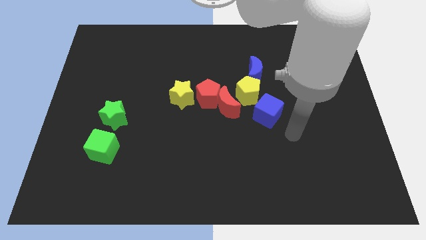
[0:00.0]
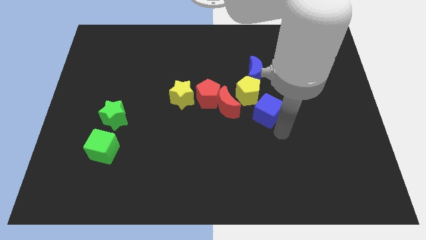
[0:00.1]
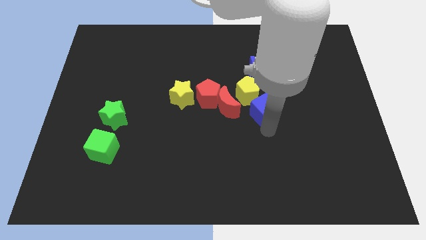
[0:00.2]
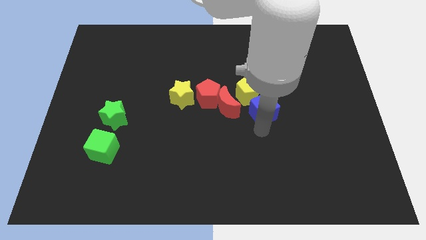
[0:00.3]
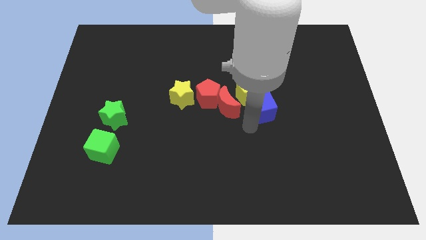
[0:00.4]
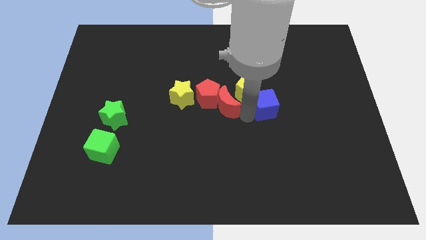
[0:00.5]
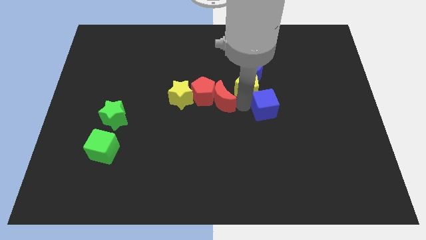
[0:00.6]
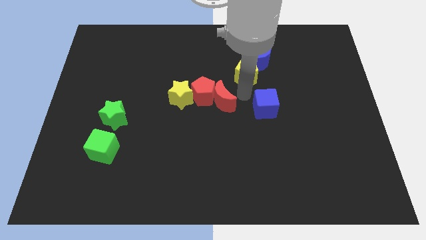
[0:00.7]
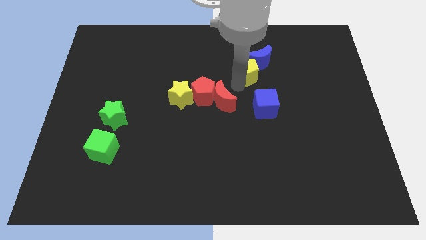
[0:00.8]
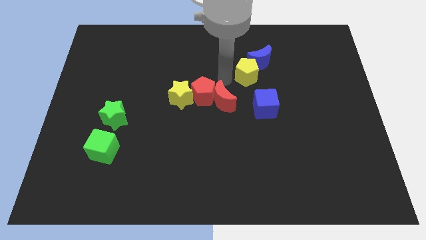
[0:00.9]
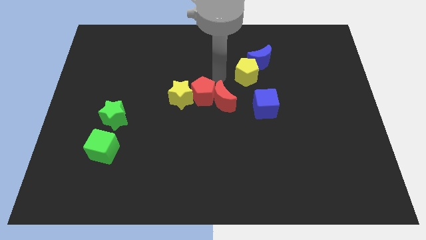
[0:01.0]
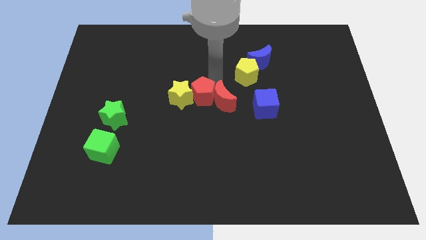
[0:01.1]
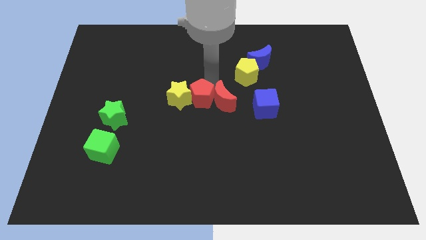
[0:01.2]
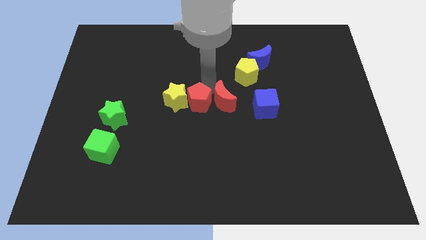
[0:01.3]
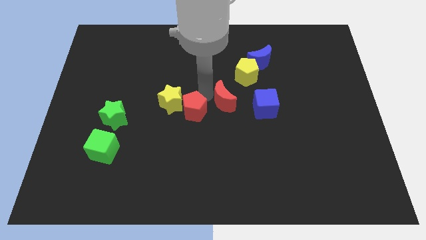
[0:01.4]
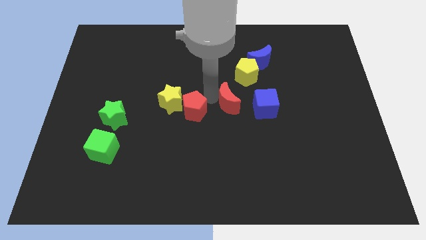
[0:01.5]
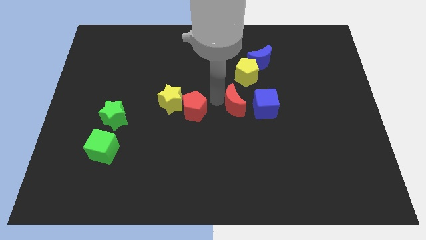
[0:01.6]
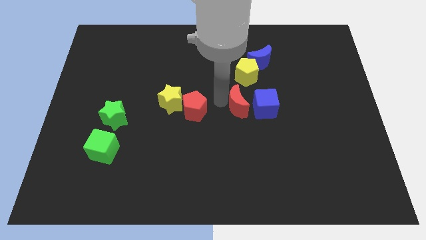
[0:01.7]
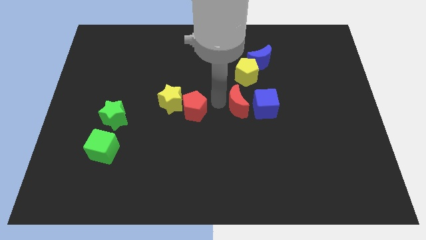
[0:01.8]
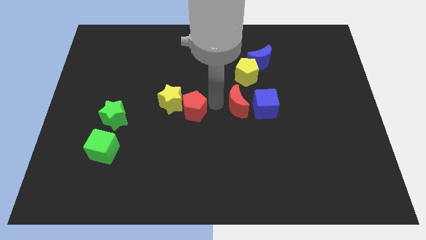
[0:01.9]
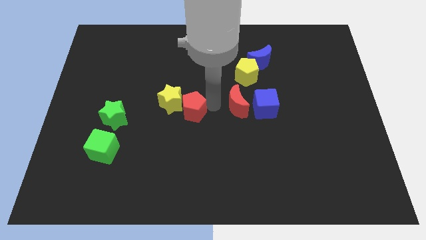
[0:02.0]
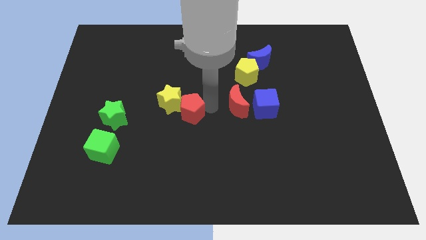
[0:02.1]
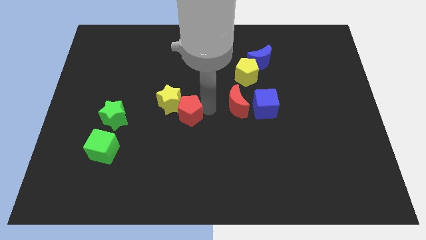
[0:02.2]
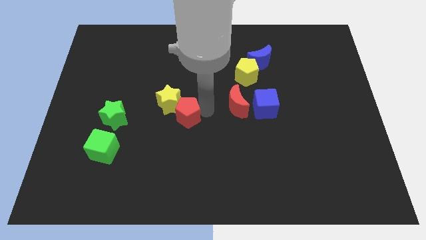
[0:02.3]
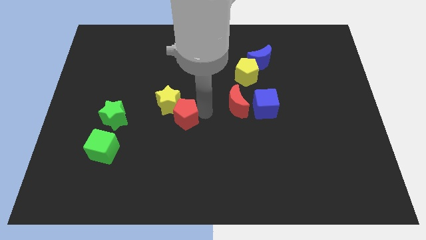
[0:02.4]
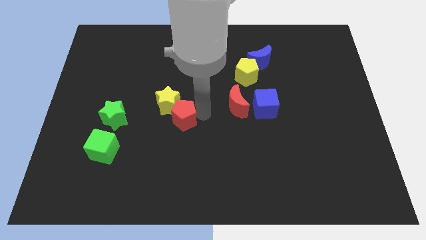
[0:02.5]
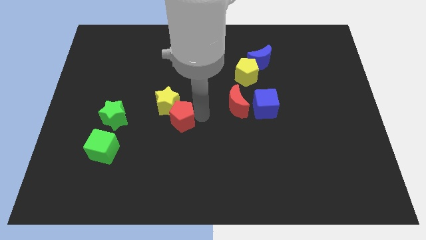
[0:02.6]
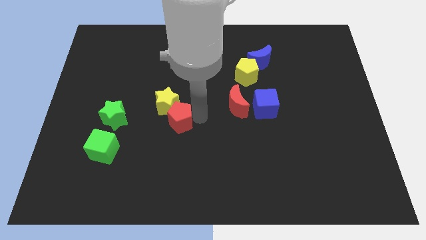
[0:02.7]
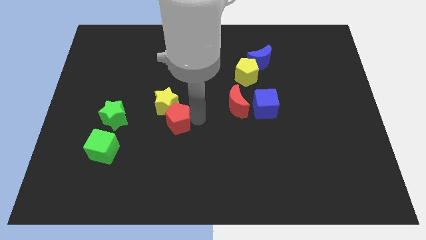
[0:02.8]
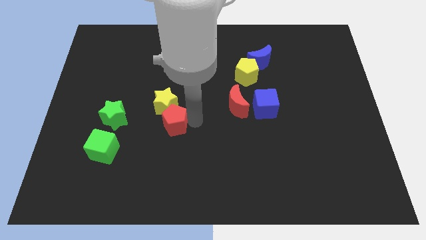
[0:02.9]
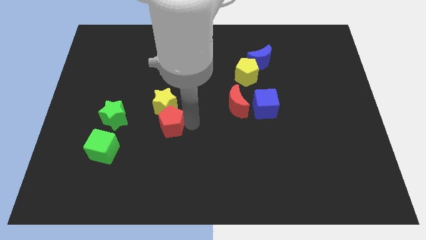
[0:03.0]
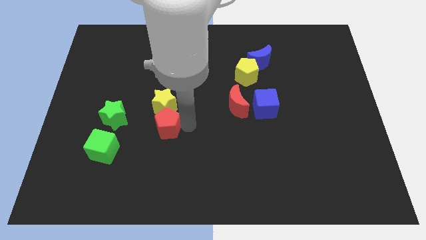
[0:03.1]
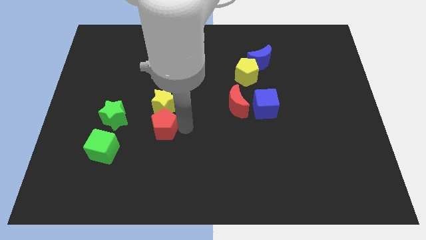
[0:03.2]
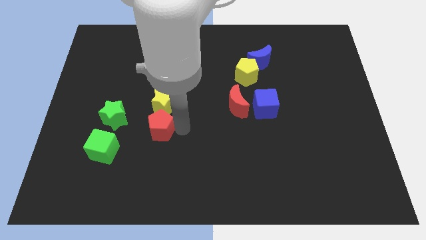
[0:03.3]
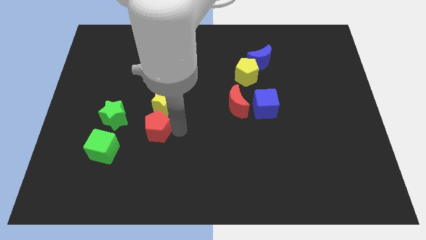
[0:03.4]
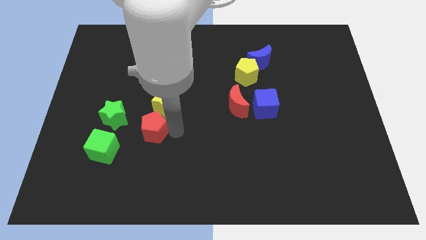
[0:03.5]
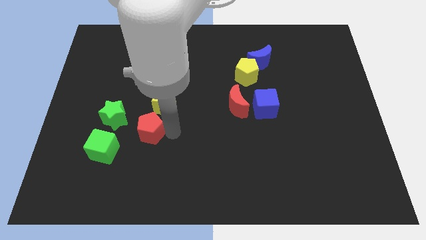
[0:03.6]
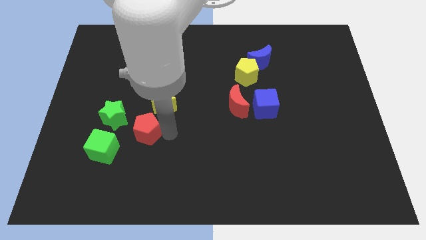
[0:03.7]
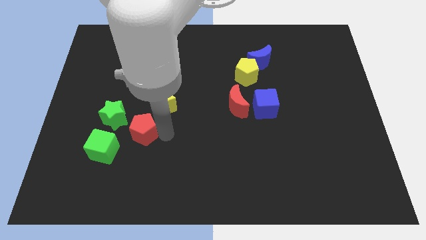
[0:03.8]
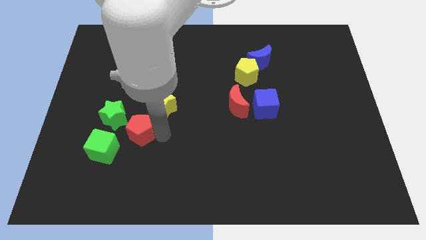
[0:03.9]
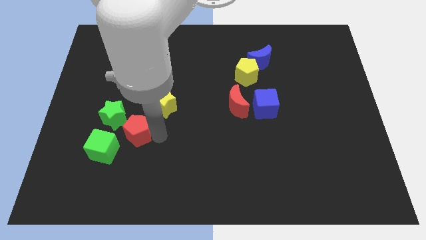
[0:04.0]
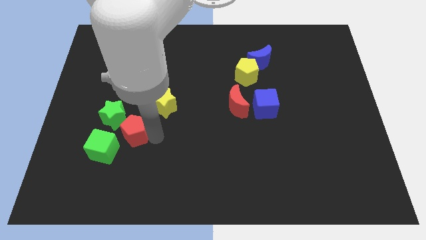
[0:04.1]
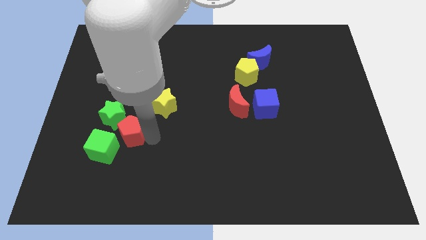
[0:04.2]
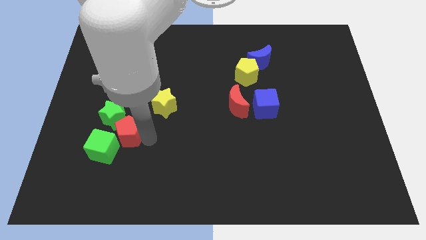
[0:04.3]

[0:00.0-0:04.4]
push the red pentagon next to the green star

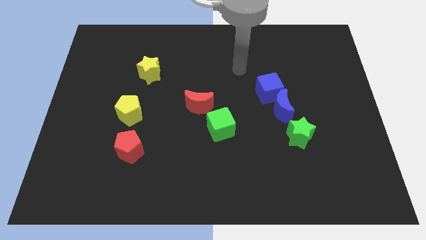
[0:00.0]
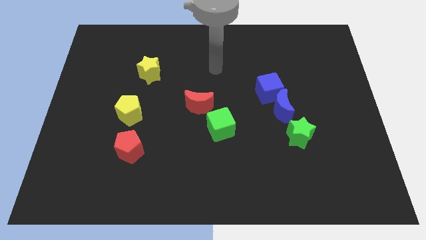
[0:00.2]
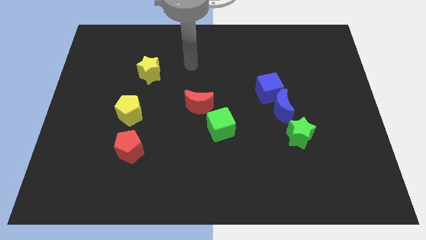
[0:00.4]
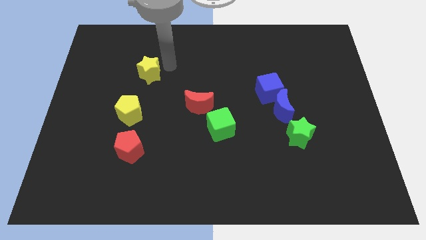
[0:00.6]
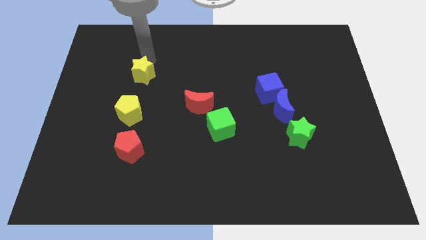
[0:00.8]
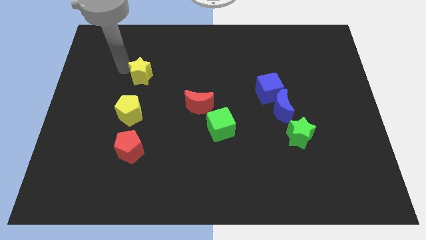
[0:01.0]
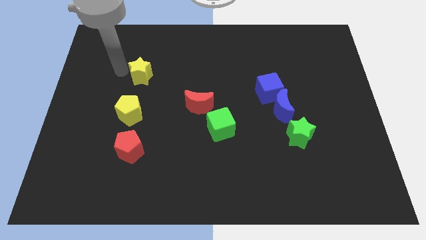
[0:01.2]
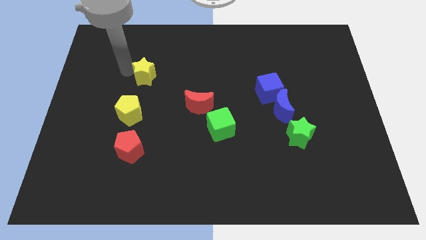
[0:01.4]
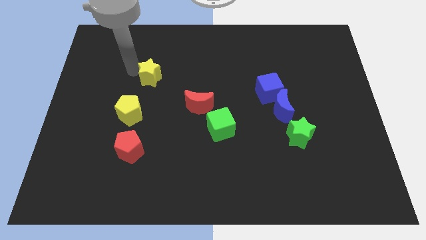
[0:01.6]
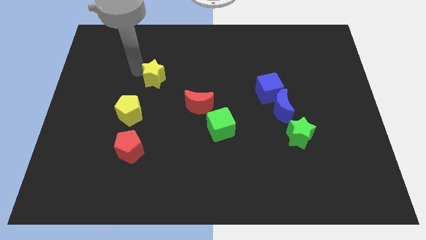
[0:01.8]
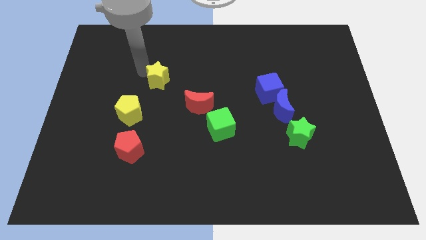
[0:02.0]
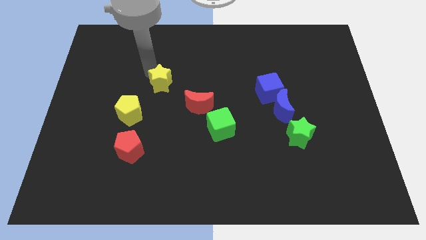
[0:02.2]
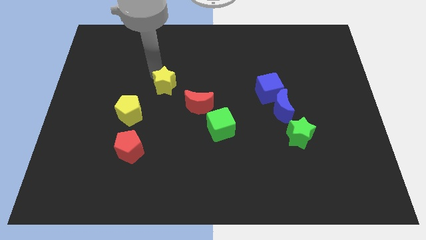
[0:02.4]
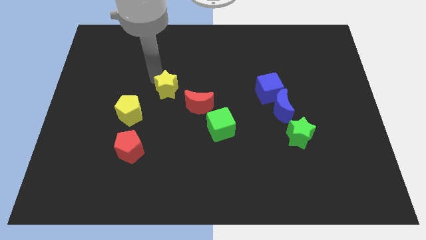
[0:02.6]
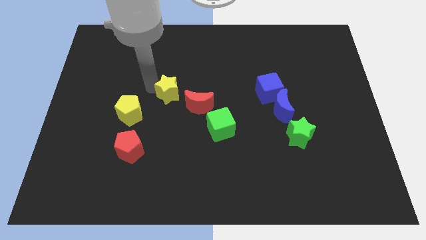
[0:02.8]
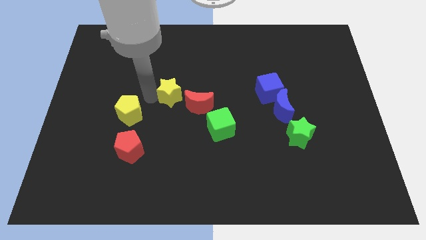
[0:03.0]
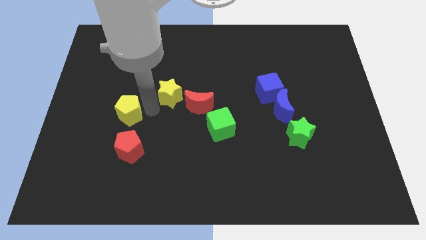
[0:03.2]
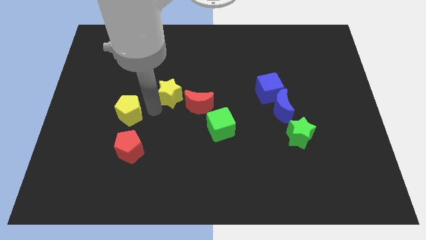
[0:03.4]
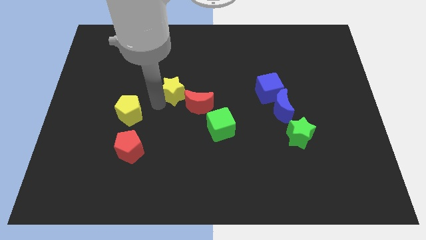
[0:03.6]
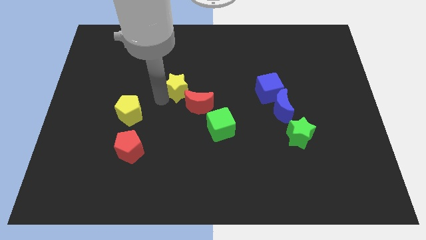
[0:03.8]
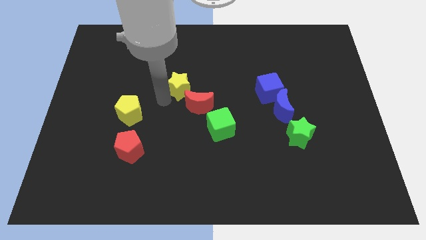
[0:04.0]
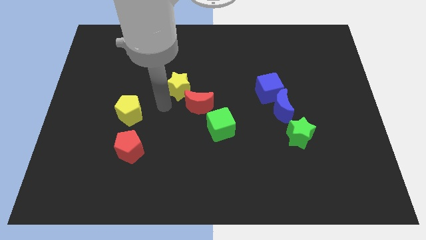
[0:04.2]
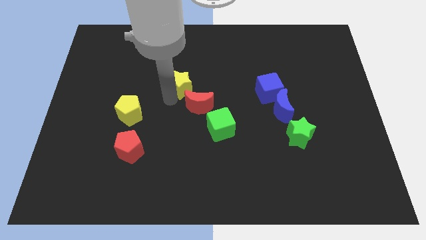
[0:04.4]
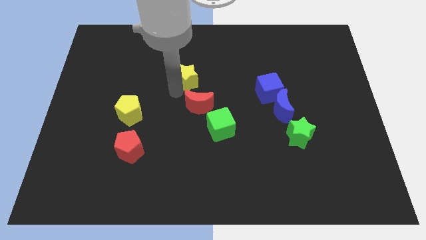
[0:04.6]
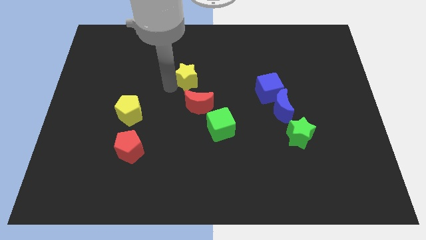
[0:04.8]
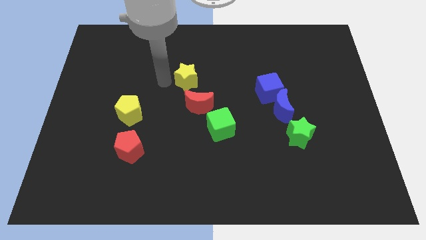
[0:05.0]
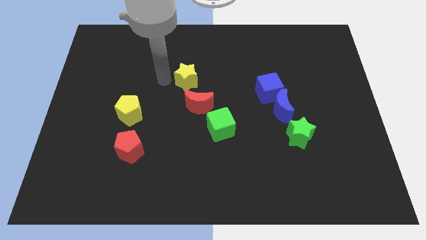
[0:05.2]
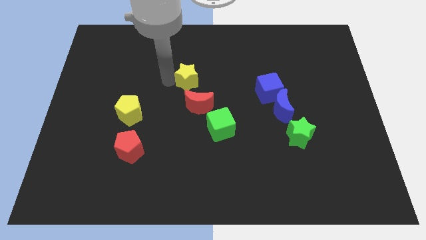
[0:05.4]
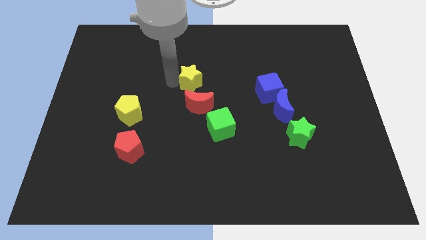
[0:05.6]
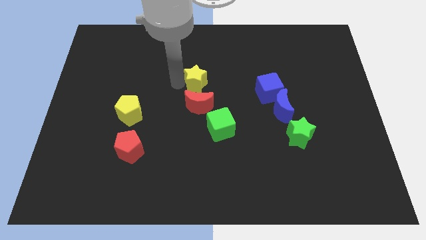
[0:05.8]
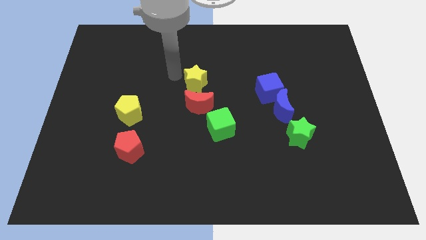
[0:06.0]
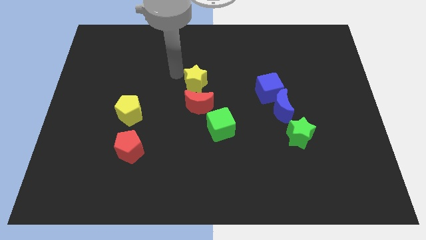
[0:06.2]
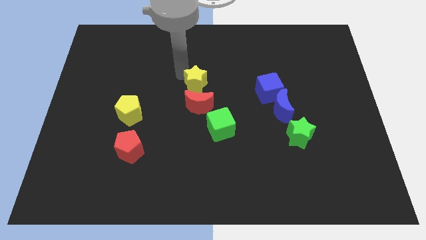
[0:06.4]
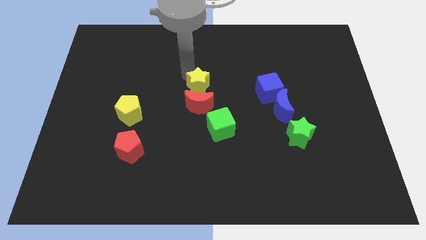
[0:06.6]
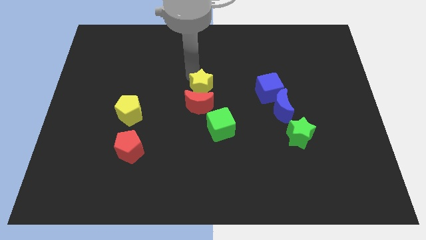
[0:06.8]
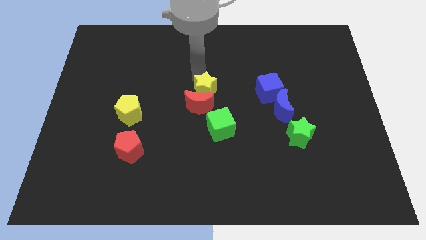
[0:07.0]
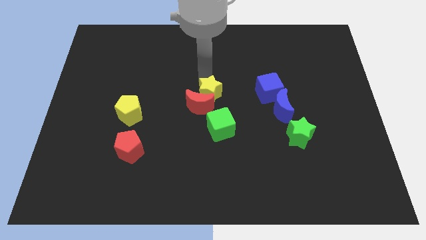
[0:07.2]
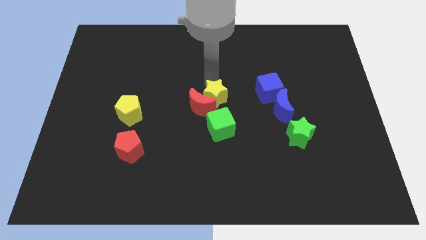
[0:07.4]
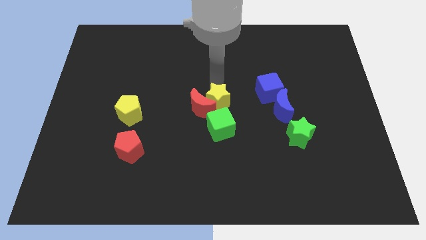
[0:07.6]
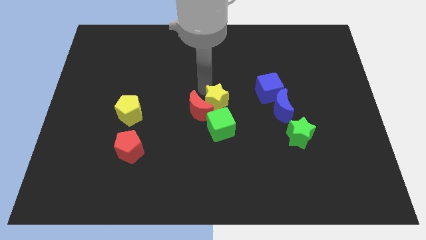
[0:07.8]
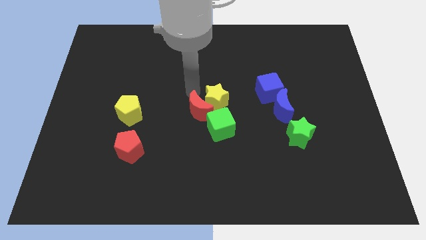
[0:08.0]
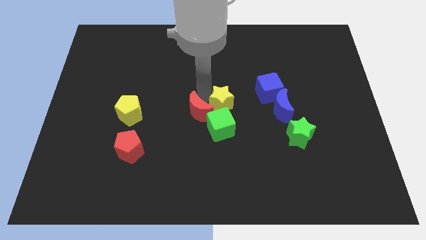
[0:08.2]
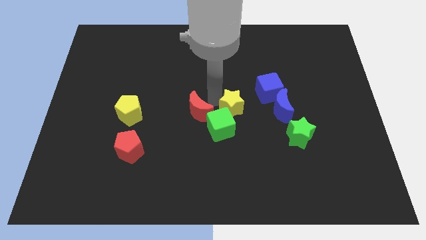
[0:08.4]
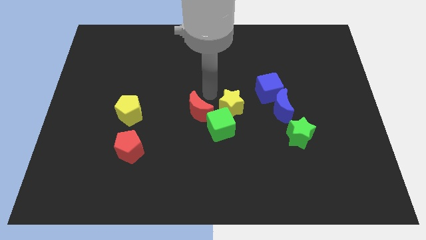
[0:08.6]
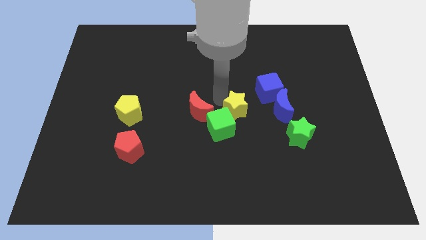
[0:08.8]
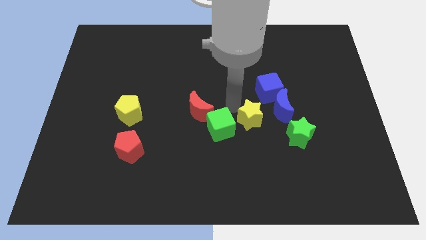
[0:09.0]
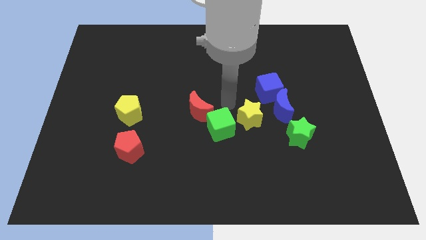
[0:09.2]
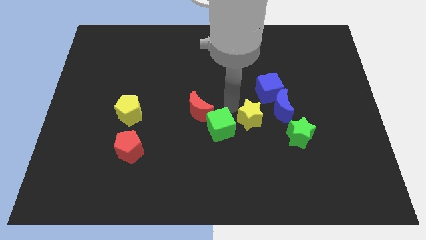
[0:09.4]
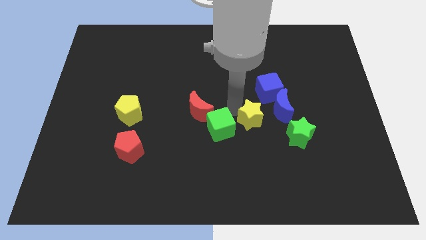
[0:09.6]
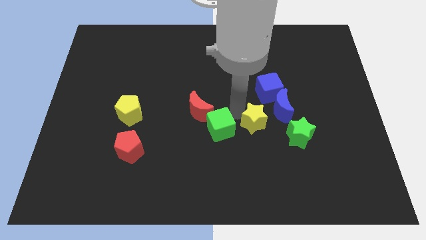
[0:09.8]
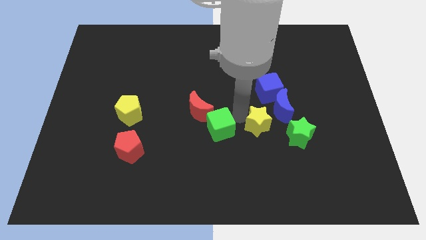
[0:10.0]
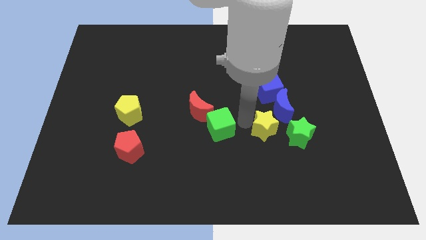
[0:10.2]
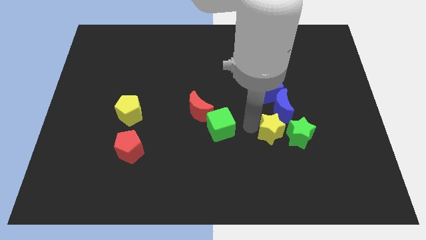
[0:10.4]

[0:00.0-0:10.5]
move the yellow star next to the green star
